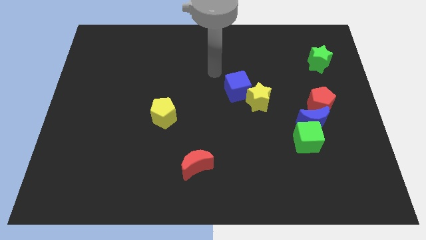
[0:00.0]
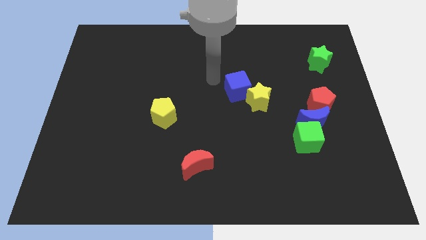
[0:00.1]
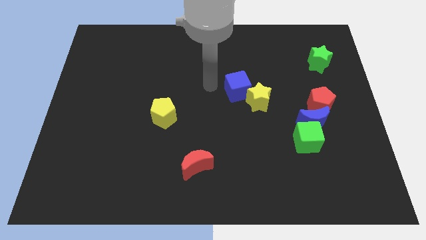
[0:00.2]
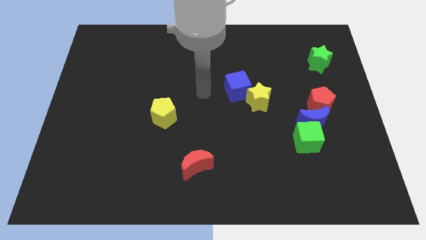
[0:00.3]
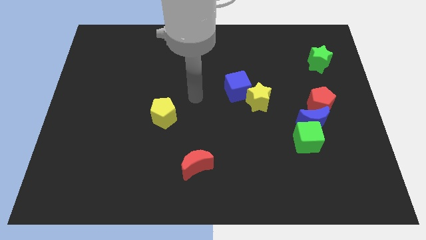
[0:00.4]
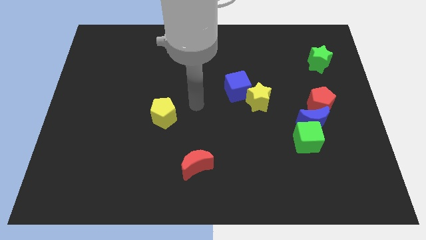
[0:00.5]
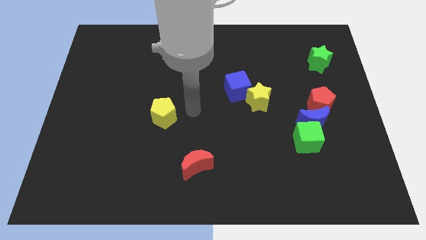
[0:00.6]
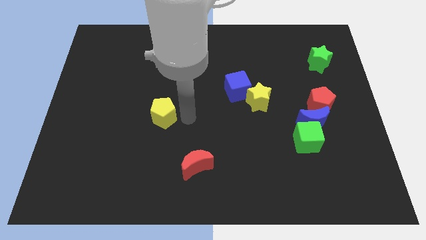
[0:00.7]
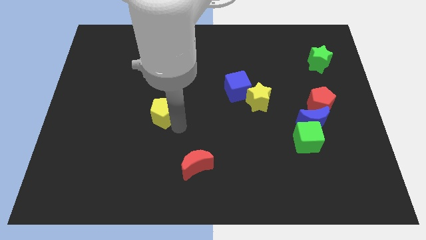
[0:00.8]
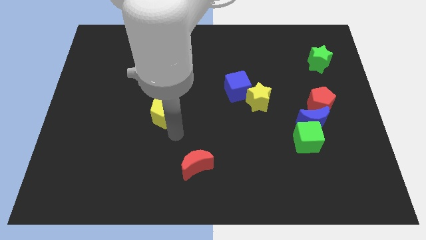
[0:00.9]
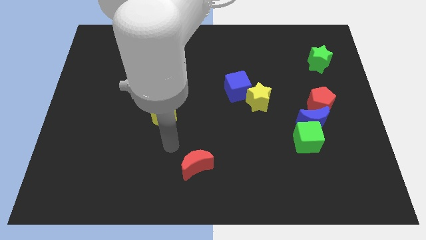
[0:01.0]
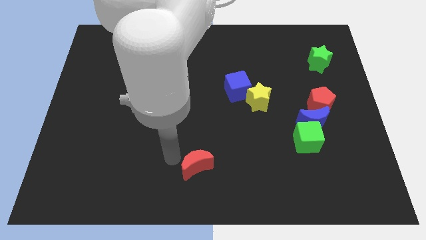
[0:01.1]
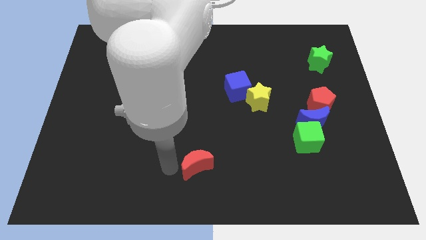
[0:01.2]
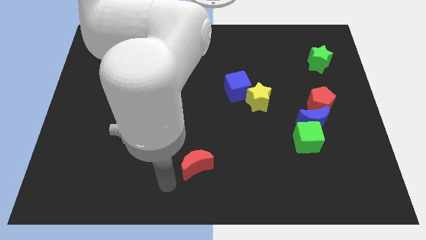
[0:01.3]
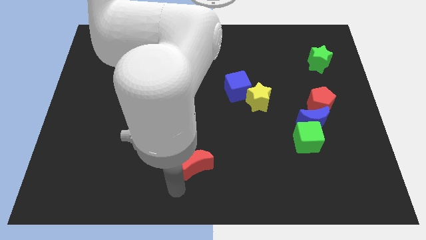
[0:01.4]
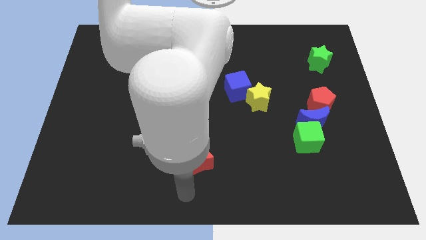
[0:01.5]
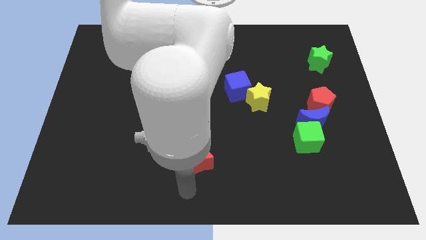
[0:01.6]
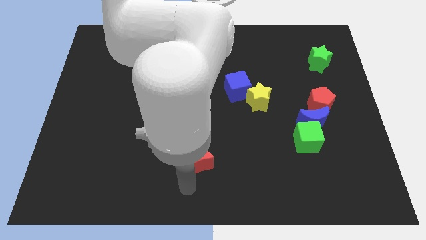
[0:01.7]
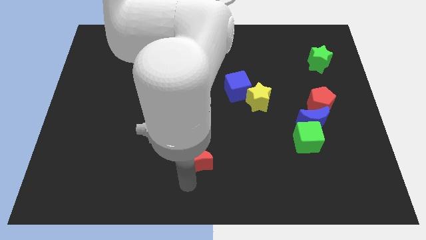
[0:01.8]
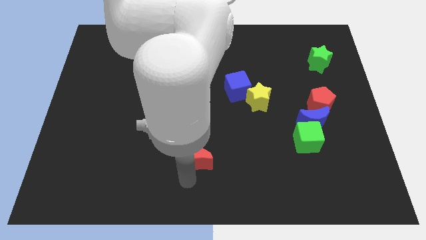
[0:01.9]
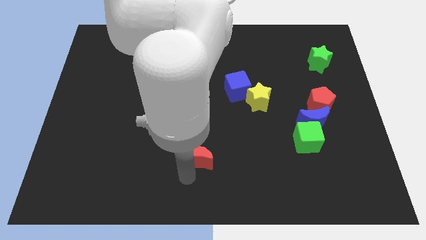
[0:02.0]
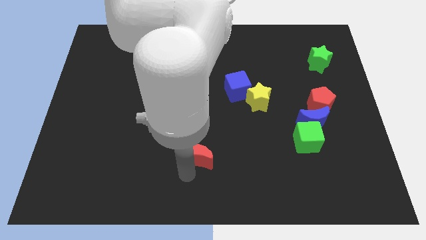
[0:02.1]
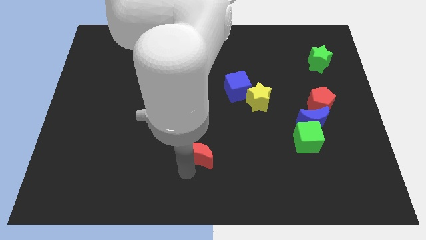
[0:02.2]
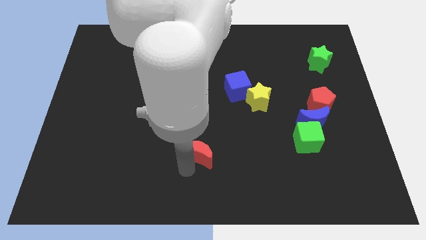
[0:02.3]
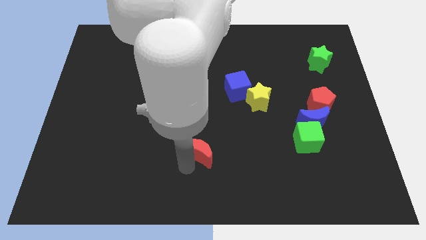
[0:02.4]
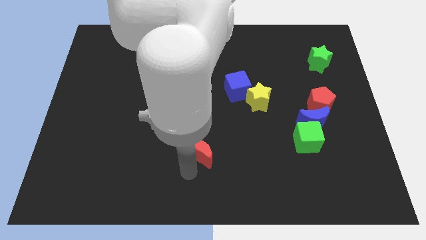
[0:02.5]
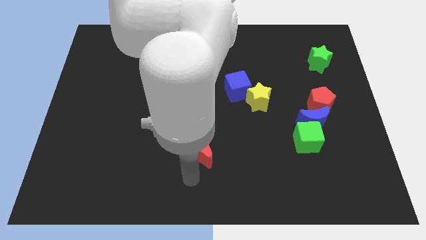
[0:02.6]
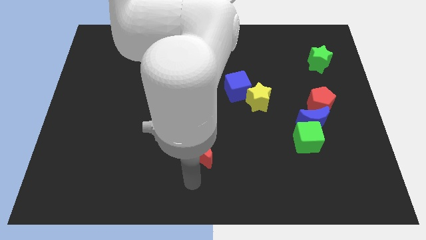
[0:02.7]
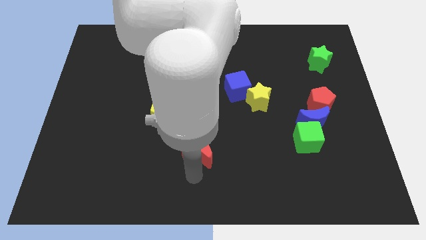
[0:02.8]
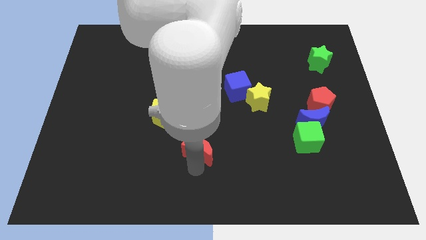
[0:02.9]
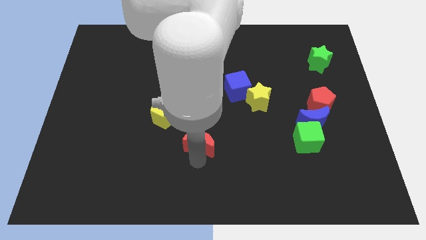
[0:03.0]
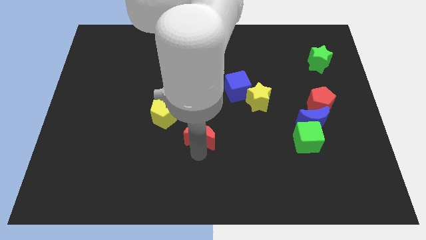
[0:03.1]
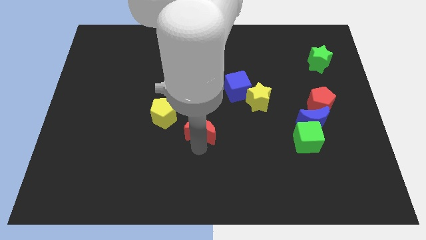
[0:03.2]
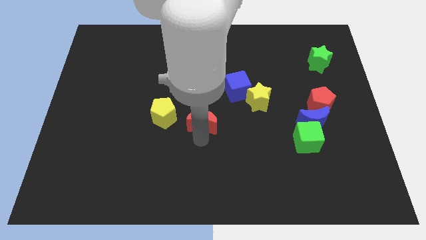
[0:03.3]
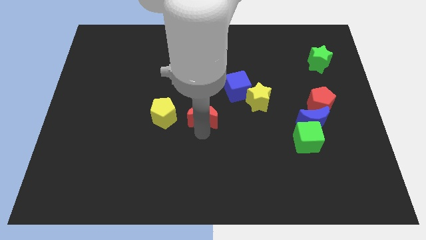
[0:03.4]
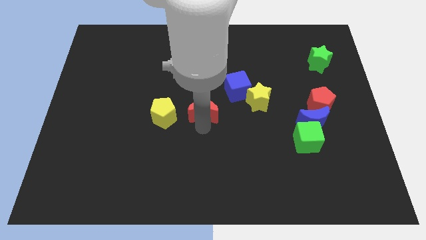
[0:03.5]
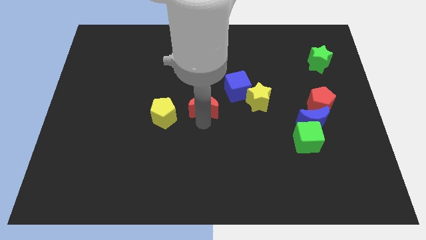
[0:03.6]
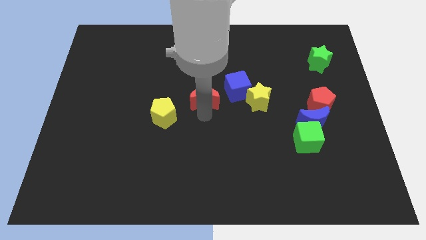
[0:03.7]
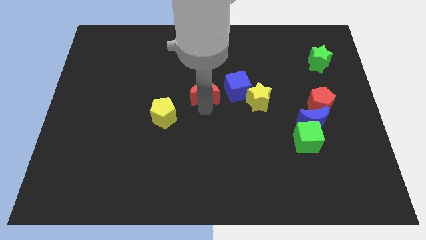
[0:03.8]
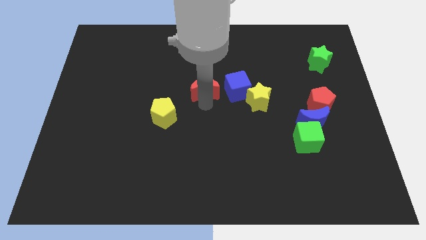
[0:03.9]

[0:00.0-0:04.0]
slide the red moon upwards

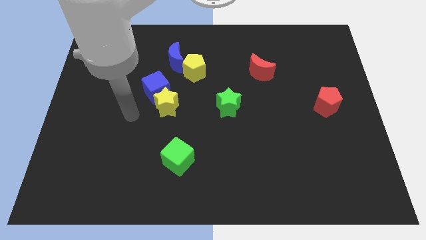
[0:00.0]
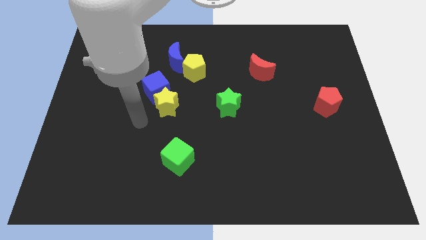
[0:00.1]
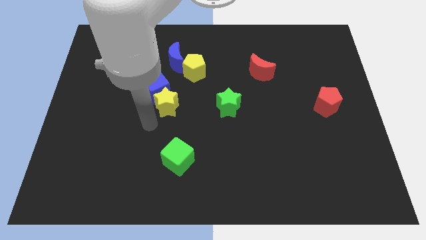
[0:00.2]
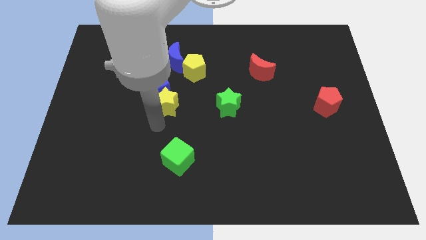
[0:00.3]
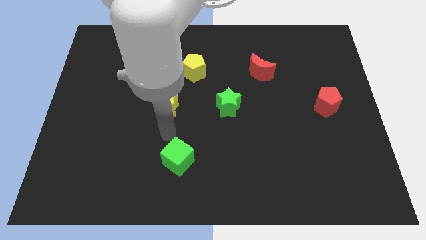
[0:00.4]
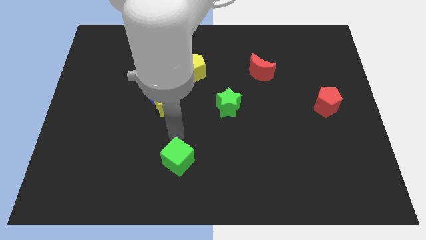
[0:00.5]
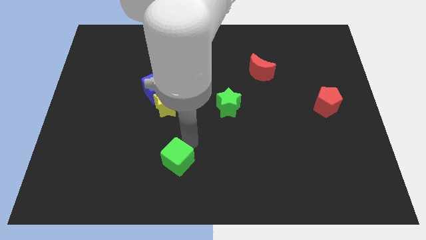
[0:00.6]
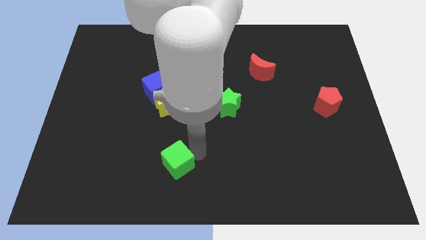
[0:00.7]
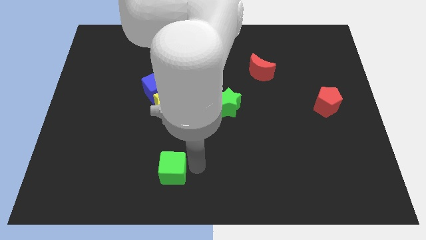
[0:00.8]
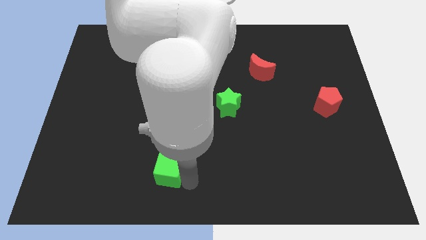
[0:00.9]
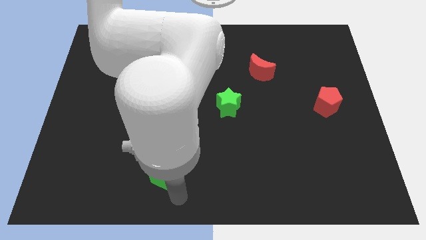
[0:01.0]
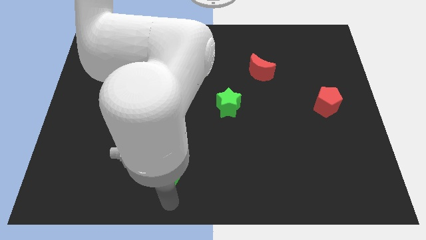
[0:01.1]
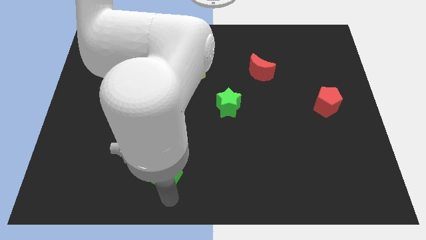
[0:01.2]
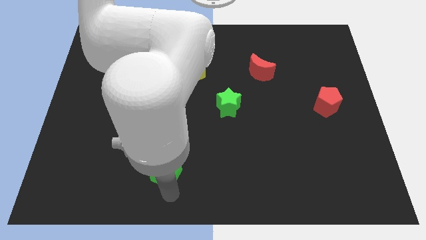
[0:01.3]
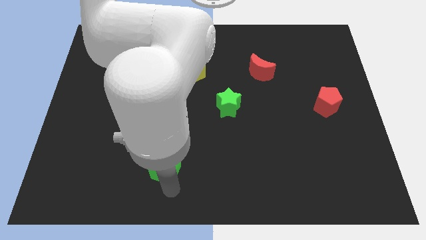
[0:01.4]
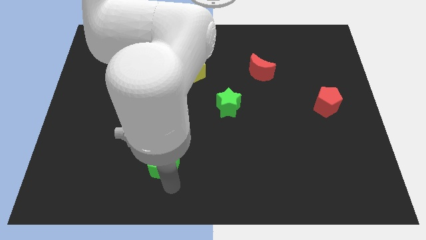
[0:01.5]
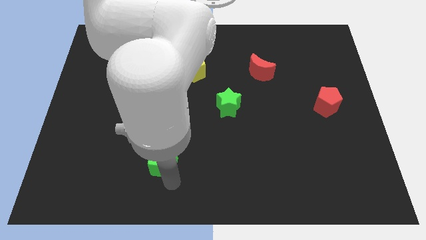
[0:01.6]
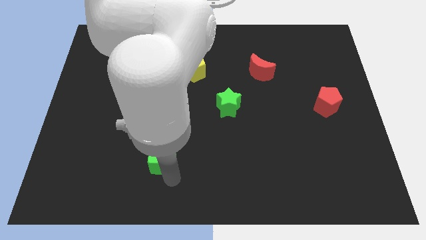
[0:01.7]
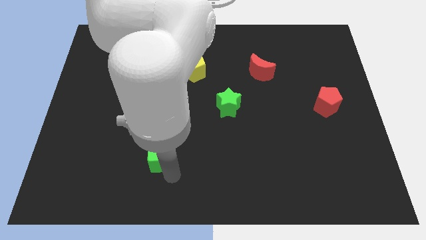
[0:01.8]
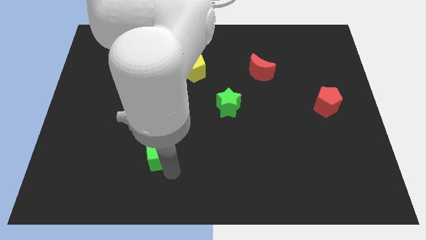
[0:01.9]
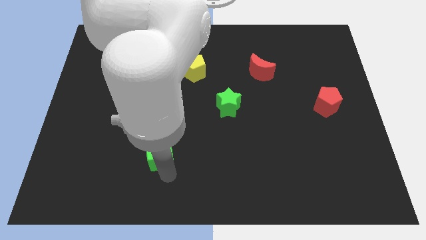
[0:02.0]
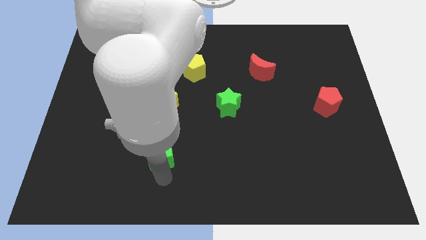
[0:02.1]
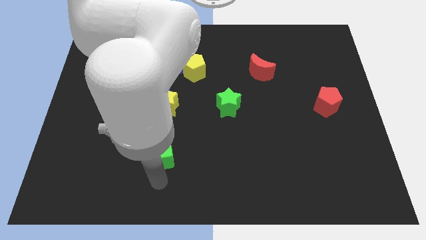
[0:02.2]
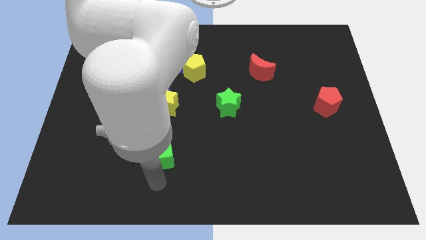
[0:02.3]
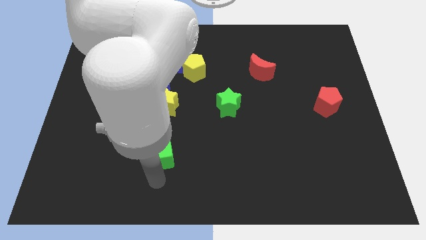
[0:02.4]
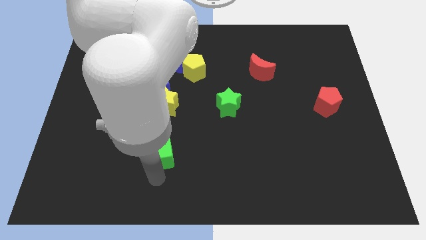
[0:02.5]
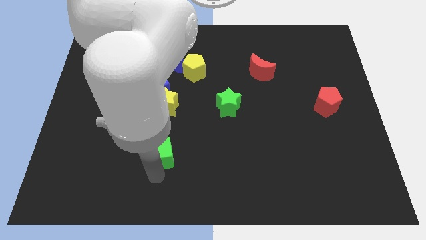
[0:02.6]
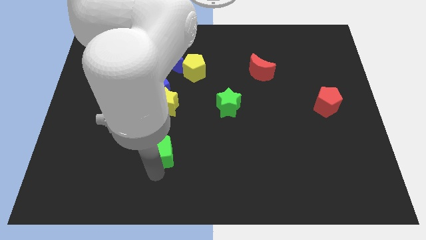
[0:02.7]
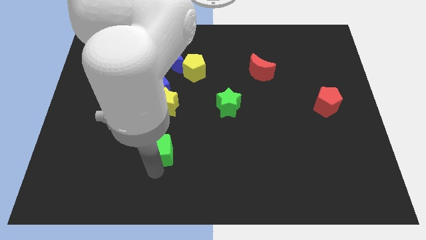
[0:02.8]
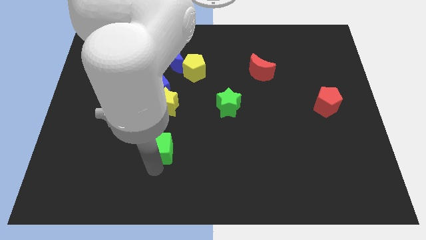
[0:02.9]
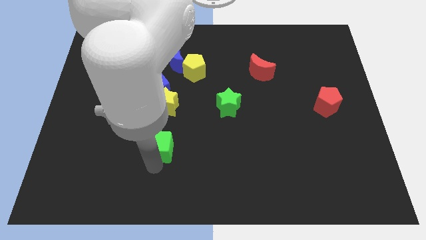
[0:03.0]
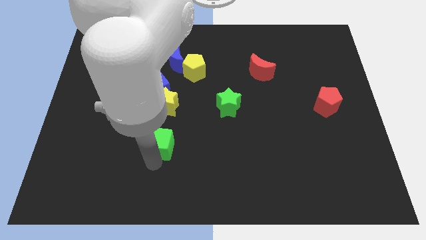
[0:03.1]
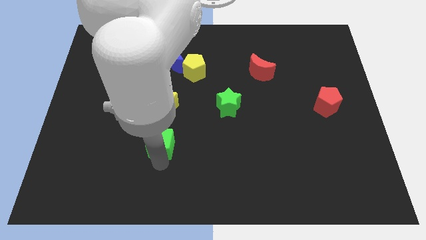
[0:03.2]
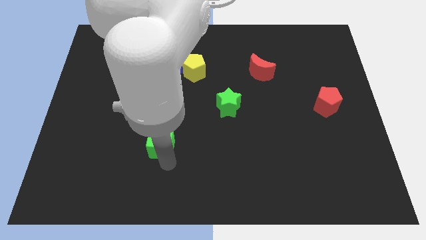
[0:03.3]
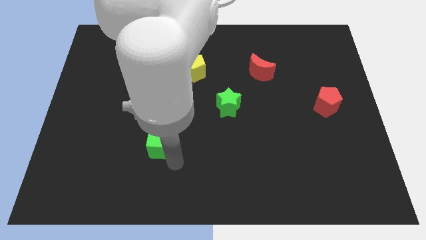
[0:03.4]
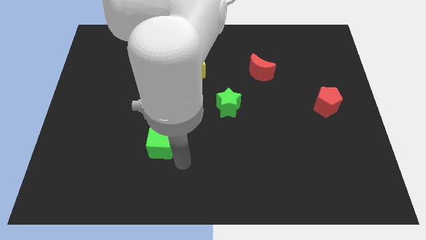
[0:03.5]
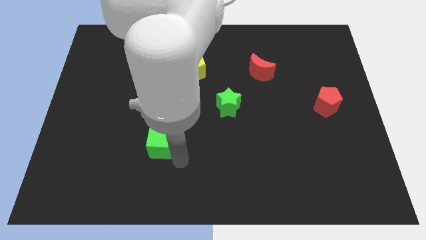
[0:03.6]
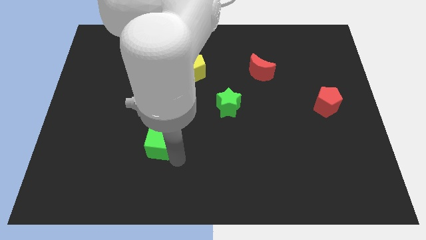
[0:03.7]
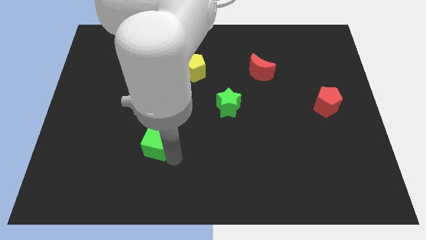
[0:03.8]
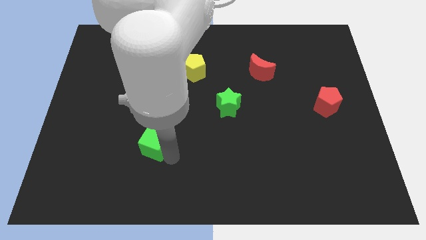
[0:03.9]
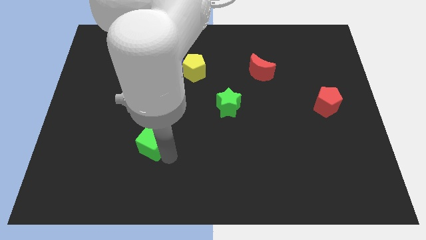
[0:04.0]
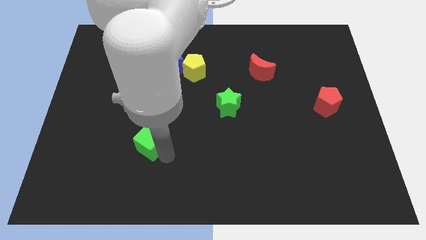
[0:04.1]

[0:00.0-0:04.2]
slide the green cube somewhat upwards and then to the left

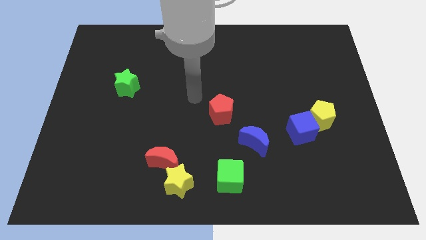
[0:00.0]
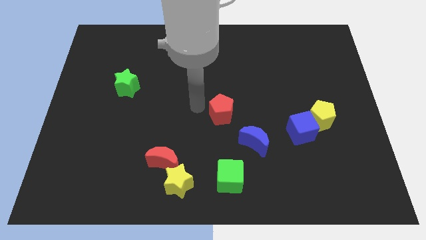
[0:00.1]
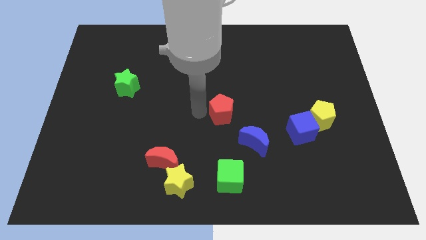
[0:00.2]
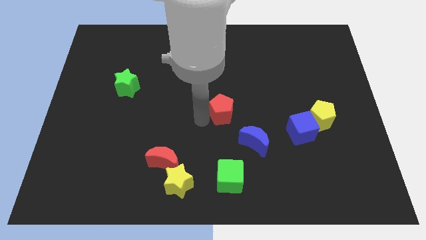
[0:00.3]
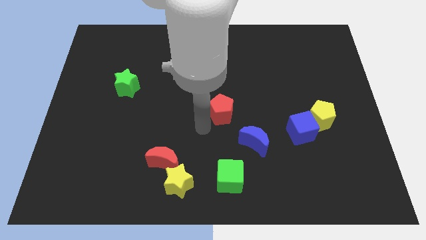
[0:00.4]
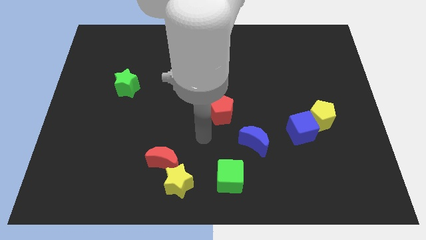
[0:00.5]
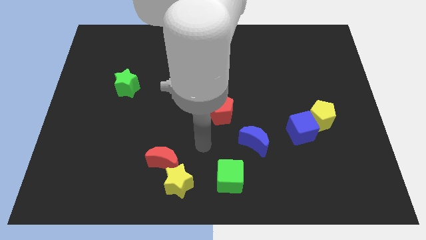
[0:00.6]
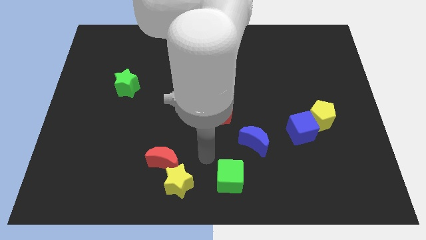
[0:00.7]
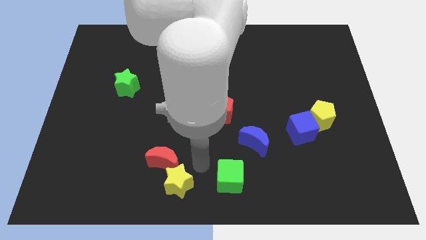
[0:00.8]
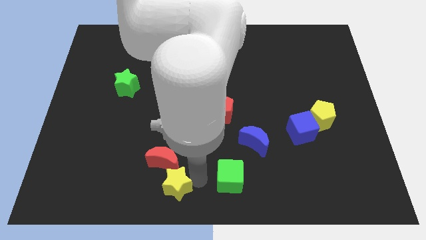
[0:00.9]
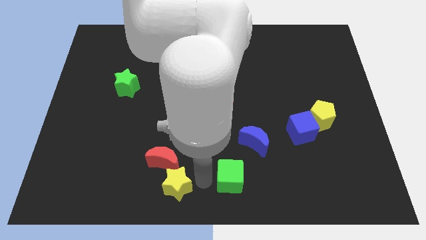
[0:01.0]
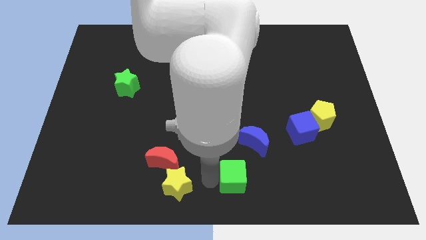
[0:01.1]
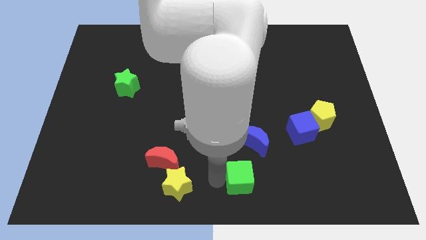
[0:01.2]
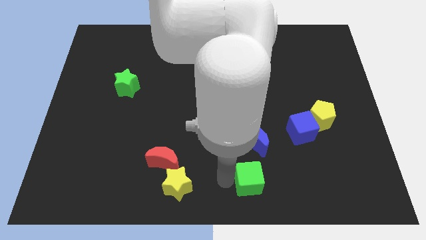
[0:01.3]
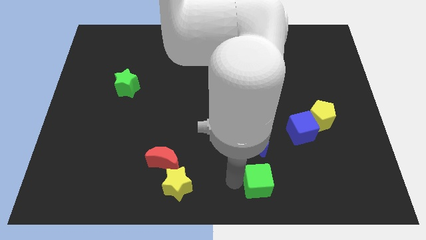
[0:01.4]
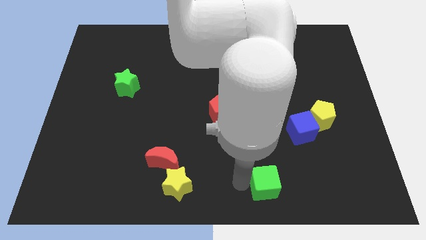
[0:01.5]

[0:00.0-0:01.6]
slightly move the green cube right
